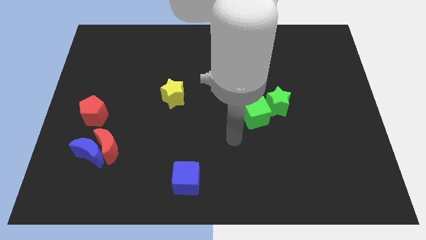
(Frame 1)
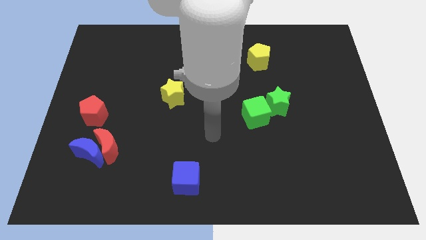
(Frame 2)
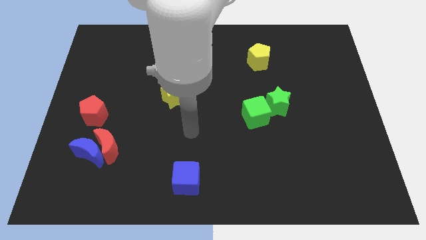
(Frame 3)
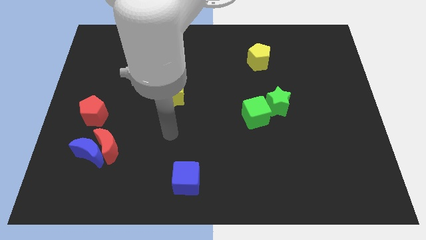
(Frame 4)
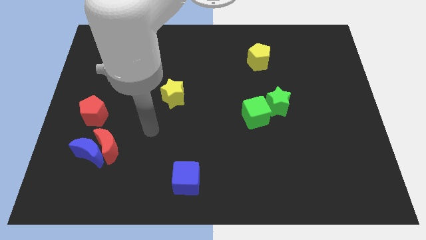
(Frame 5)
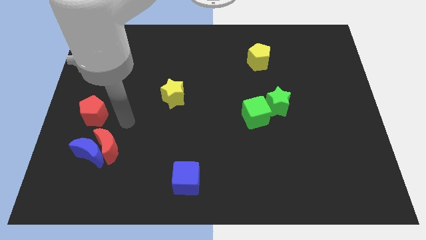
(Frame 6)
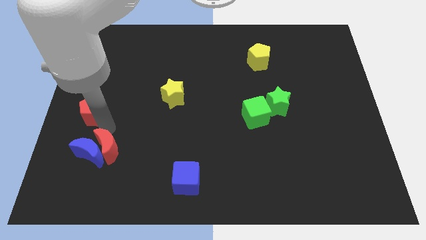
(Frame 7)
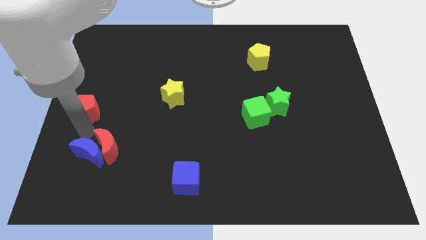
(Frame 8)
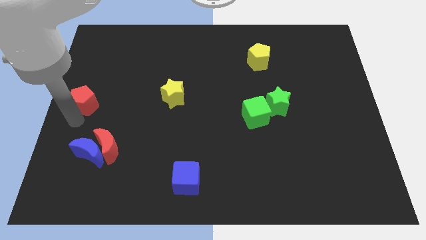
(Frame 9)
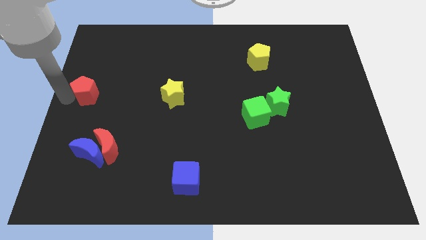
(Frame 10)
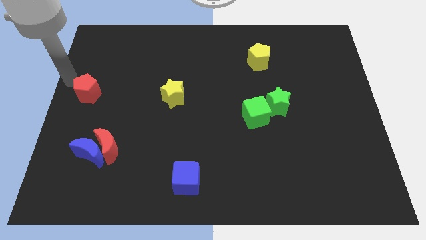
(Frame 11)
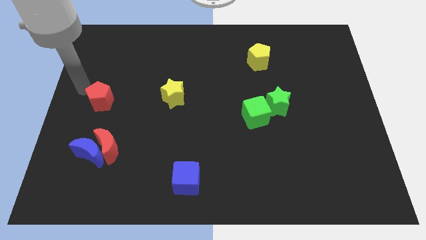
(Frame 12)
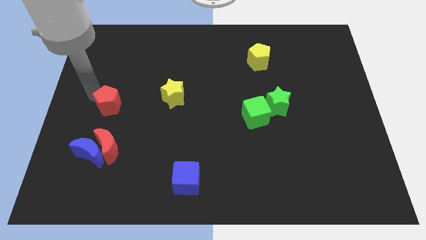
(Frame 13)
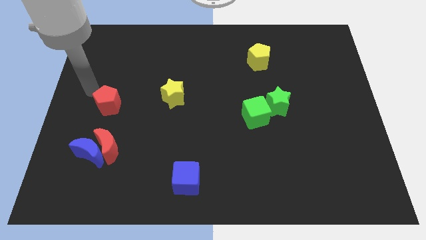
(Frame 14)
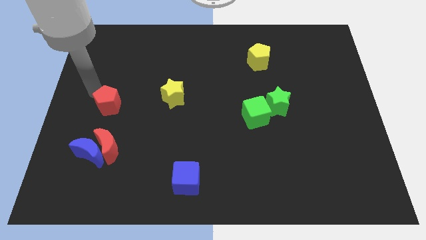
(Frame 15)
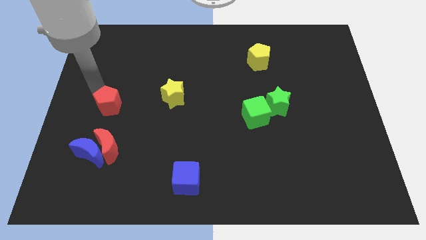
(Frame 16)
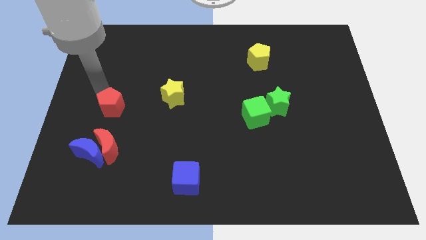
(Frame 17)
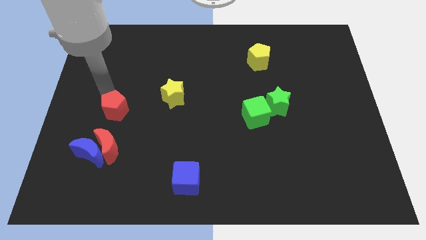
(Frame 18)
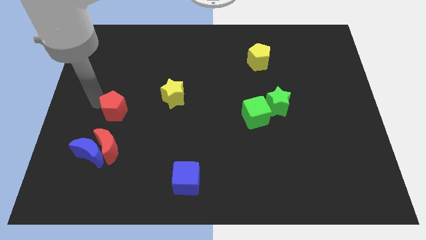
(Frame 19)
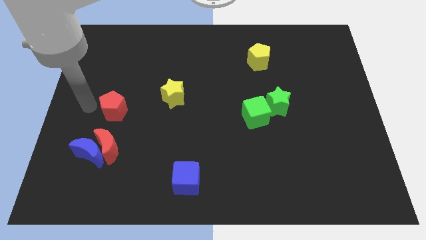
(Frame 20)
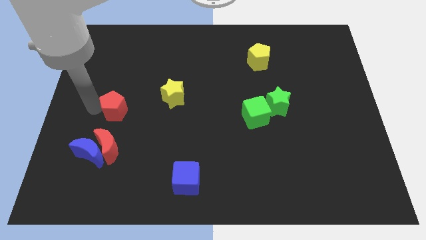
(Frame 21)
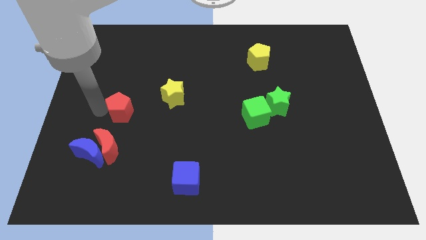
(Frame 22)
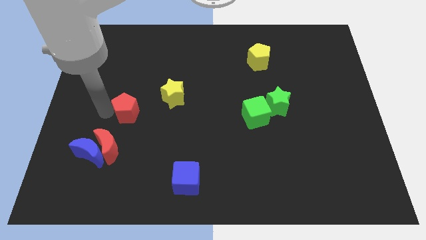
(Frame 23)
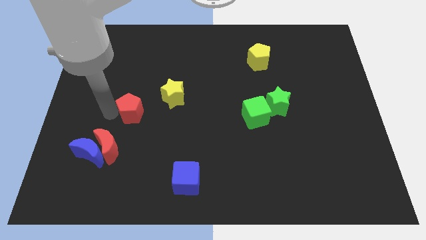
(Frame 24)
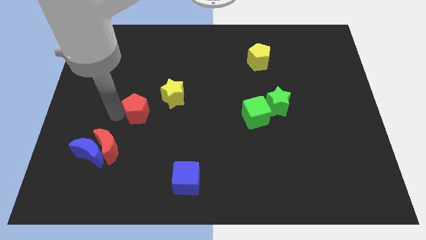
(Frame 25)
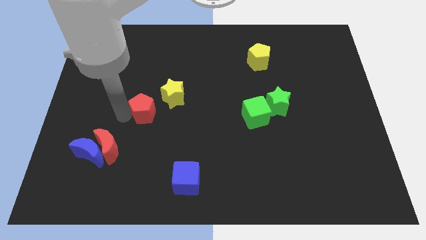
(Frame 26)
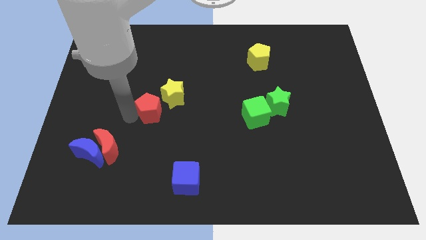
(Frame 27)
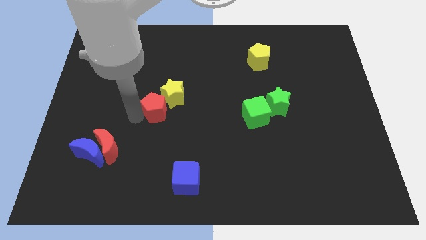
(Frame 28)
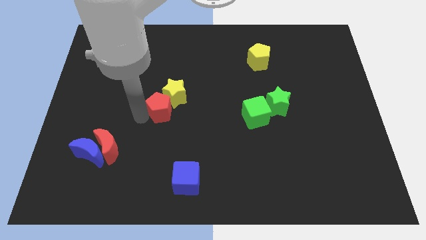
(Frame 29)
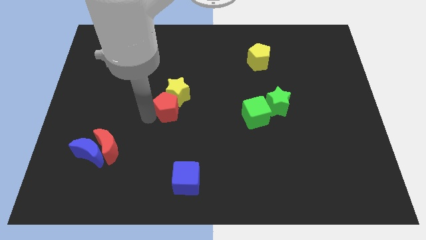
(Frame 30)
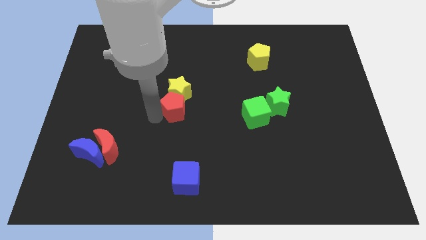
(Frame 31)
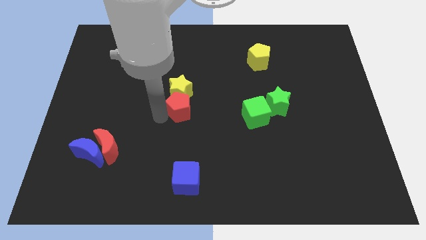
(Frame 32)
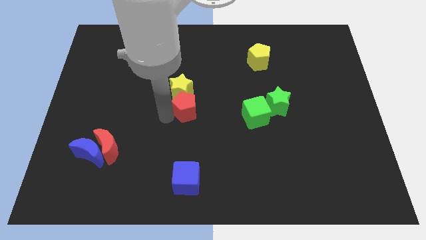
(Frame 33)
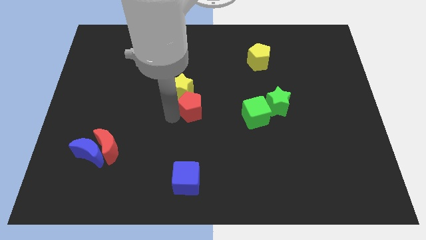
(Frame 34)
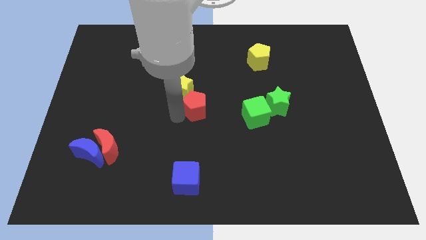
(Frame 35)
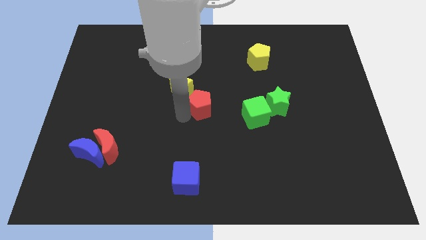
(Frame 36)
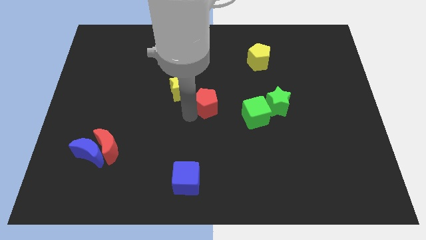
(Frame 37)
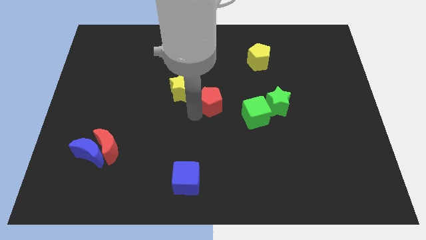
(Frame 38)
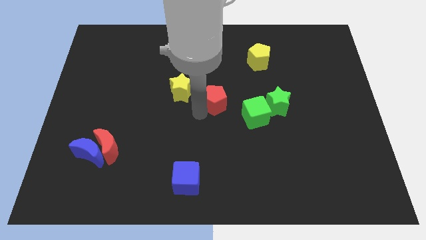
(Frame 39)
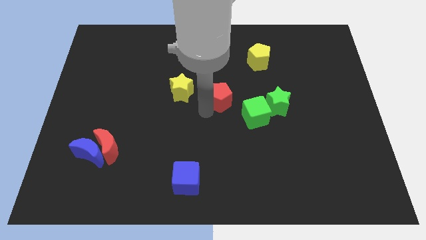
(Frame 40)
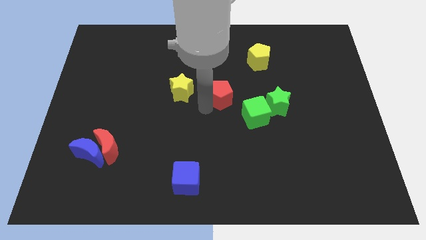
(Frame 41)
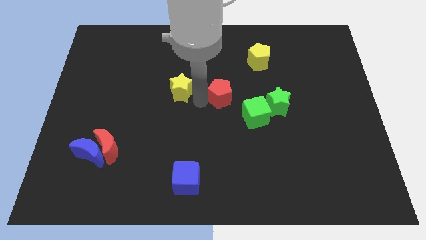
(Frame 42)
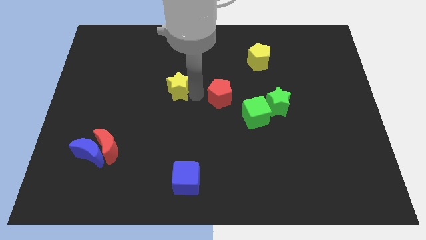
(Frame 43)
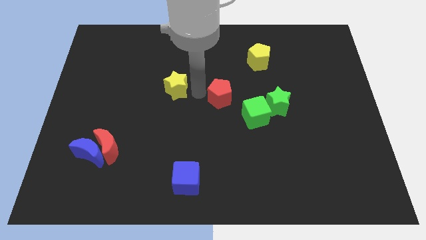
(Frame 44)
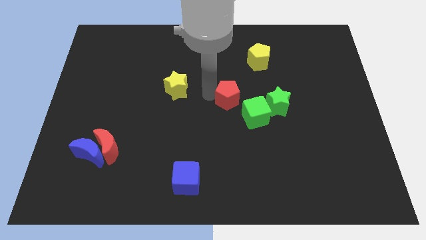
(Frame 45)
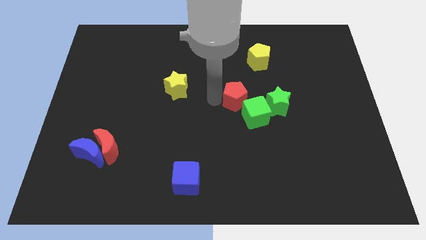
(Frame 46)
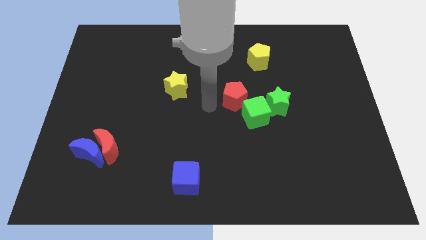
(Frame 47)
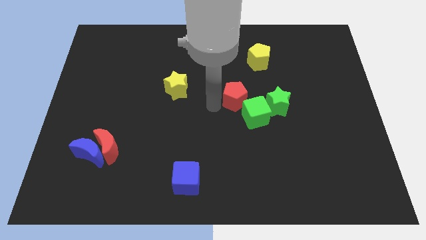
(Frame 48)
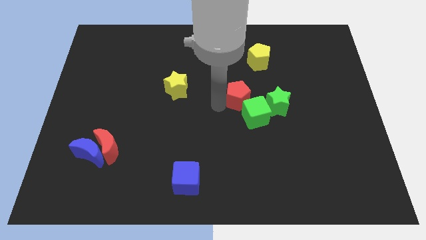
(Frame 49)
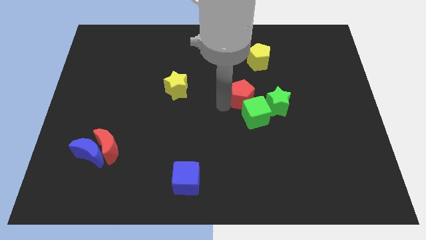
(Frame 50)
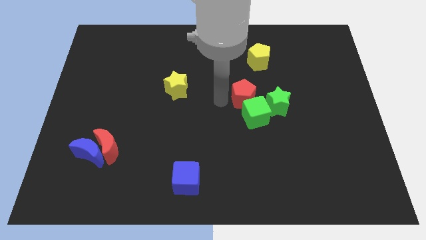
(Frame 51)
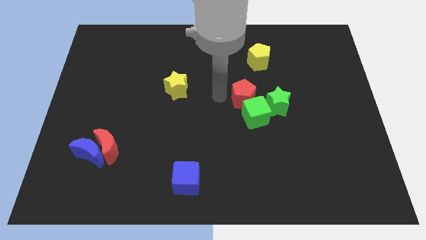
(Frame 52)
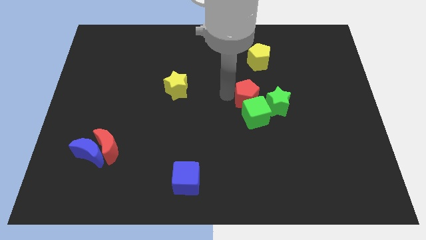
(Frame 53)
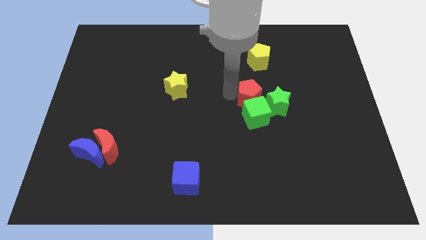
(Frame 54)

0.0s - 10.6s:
push the red pentagon diagonally up and to the right of the green cube

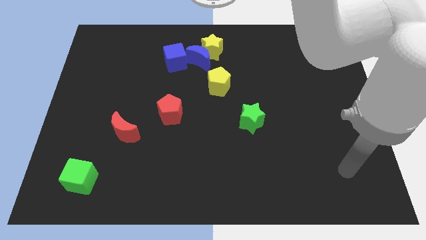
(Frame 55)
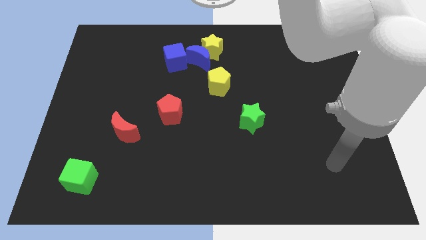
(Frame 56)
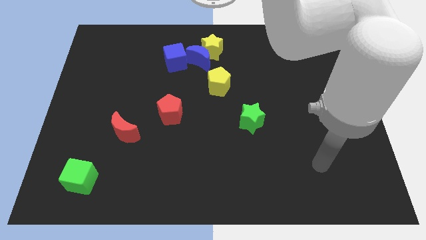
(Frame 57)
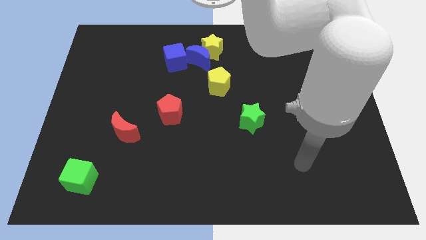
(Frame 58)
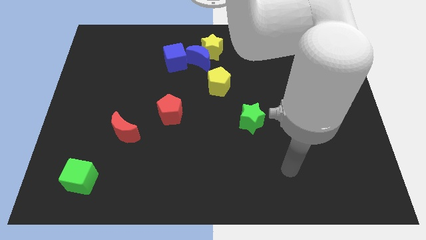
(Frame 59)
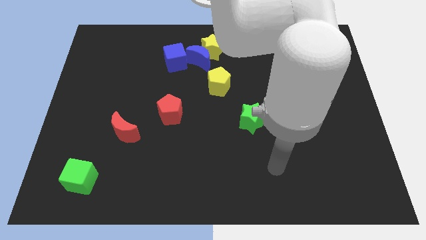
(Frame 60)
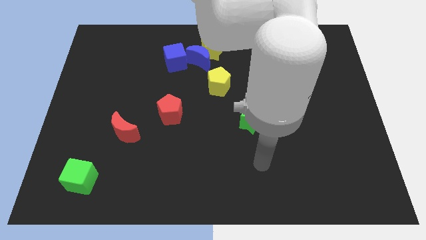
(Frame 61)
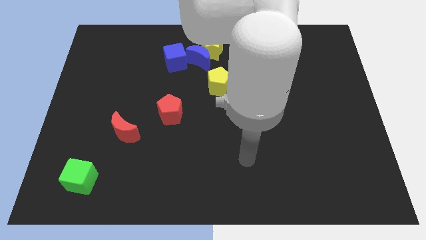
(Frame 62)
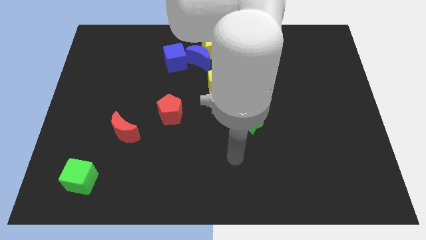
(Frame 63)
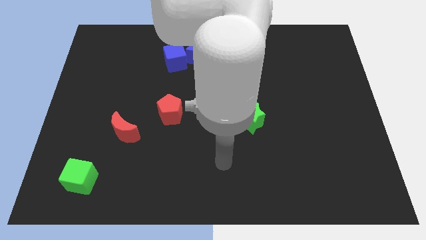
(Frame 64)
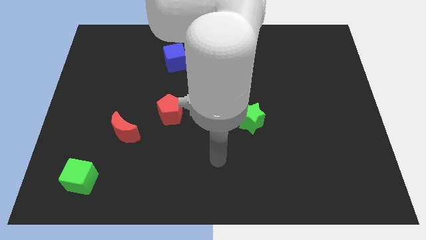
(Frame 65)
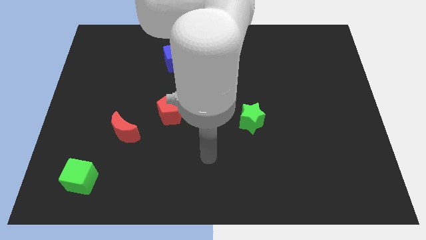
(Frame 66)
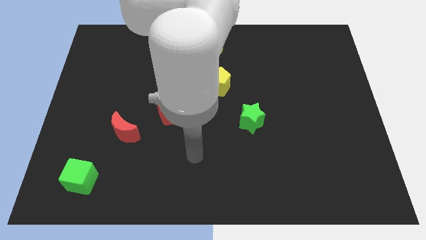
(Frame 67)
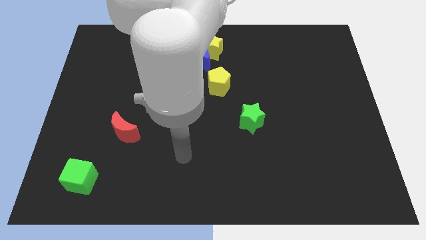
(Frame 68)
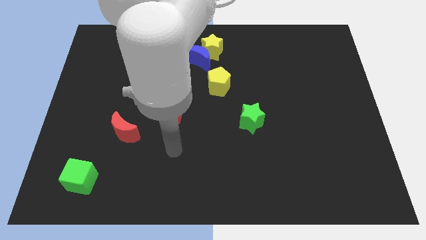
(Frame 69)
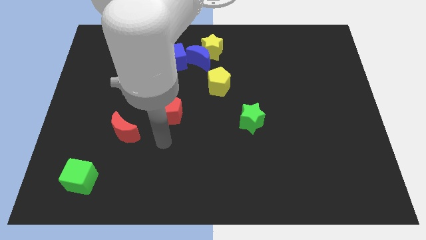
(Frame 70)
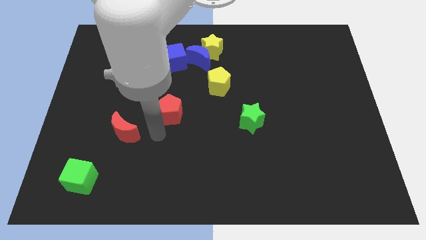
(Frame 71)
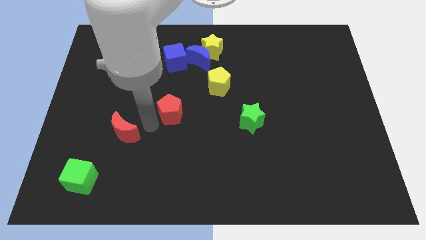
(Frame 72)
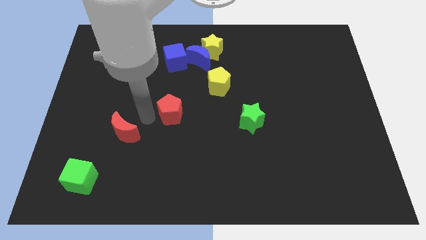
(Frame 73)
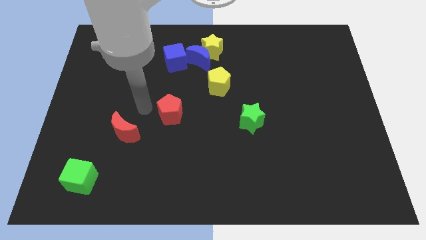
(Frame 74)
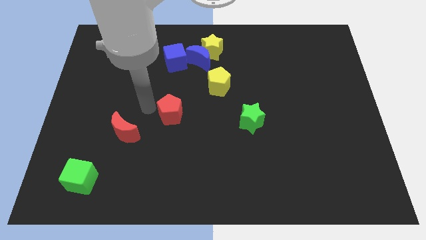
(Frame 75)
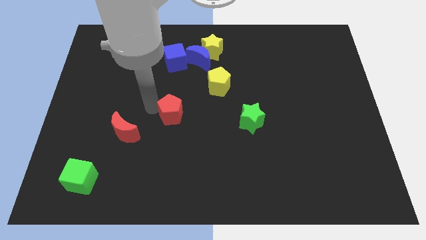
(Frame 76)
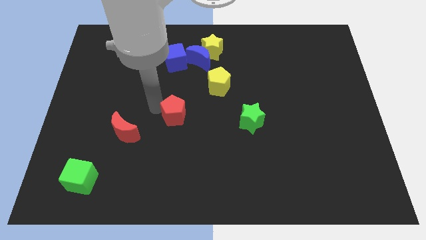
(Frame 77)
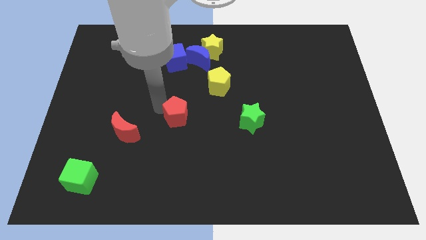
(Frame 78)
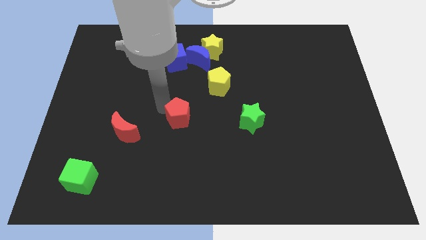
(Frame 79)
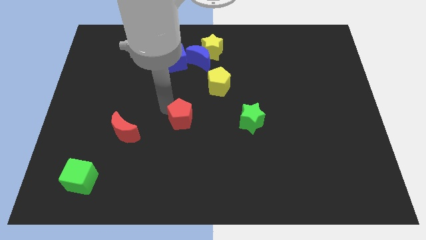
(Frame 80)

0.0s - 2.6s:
put the red pentagon to the left side of the green star
